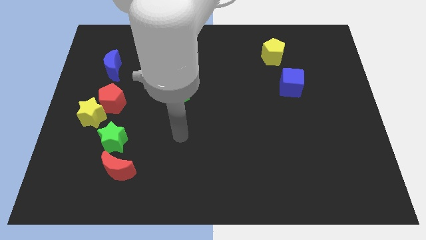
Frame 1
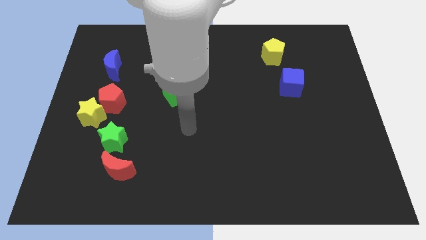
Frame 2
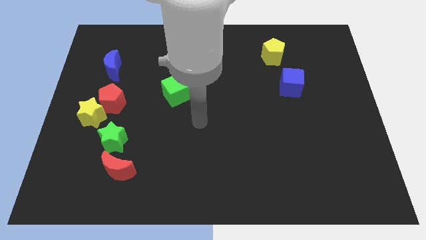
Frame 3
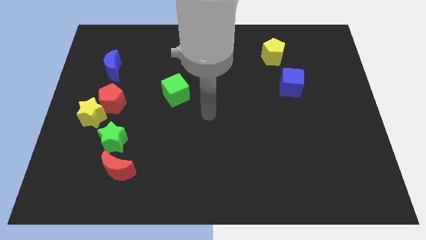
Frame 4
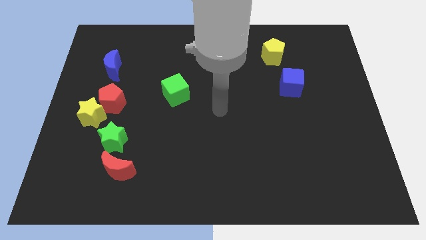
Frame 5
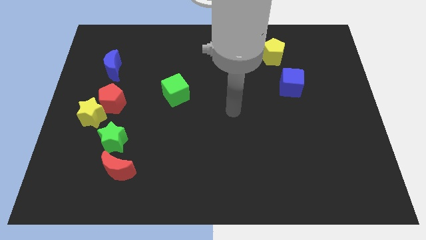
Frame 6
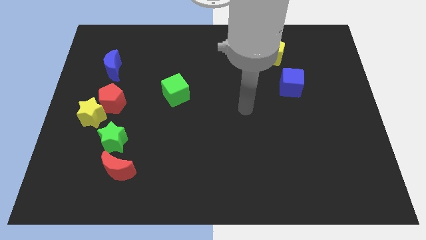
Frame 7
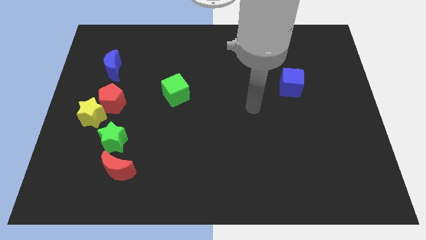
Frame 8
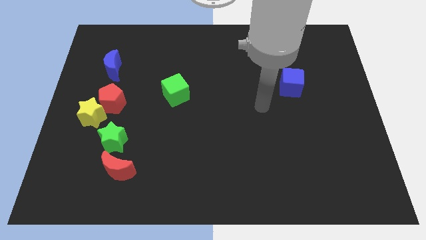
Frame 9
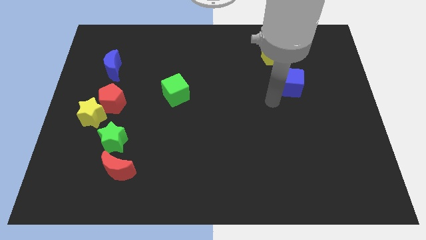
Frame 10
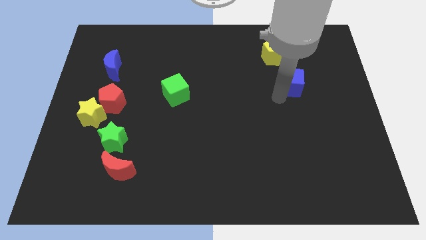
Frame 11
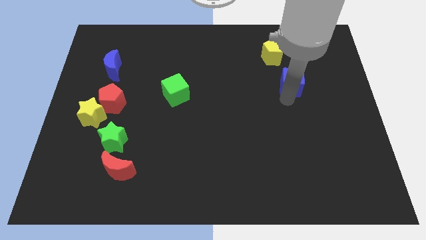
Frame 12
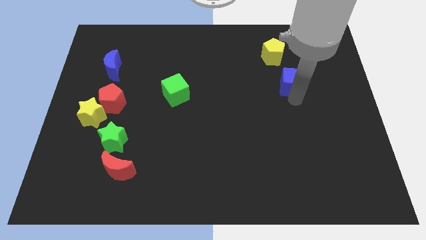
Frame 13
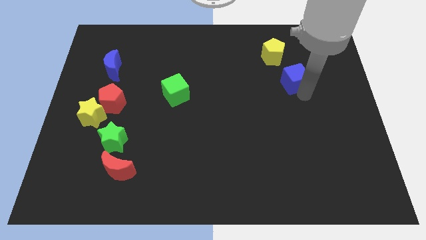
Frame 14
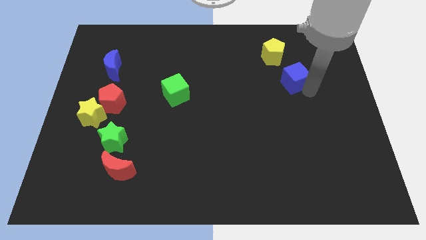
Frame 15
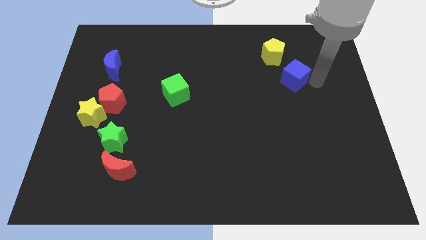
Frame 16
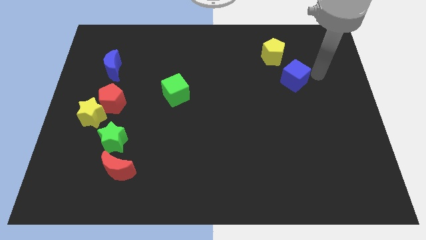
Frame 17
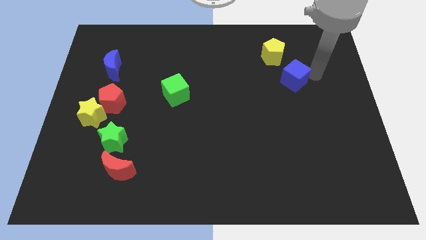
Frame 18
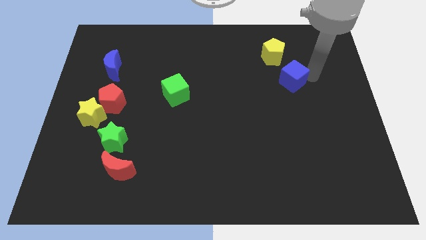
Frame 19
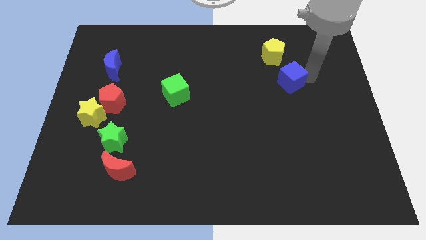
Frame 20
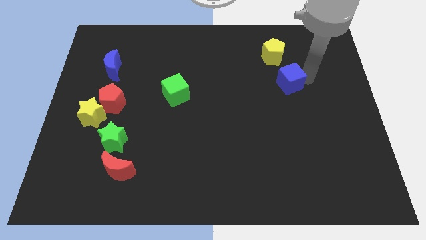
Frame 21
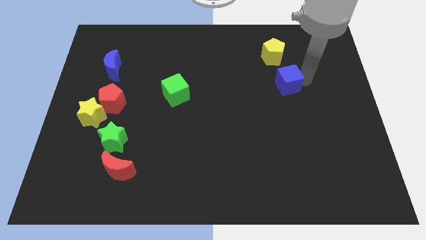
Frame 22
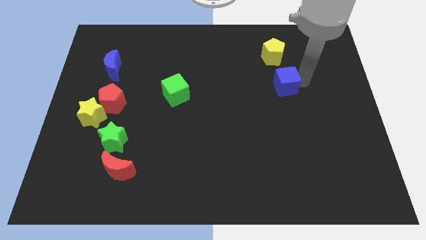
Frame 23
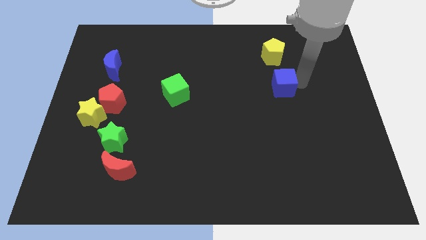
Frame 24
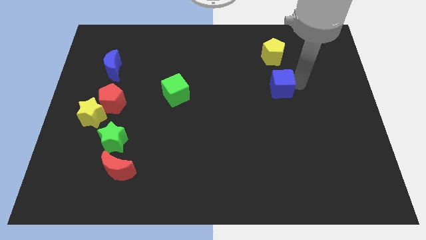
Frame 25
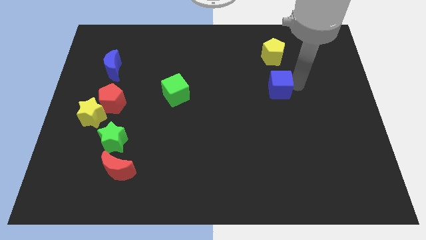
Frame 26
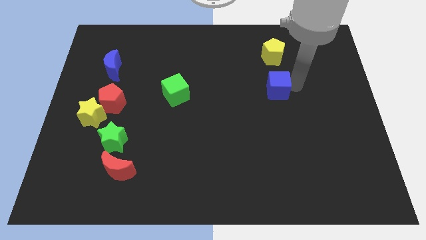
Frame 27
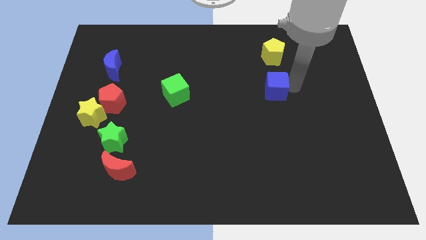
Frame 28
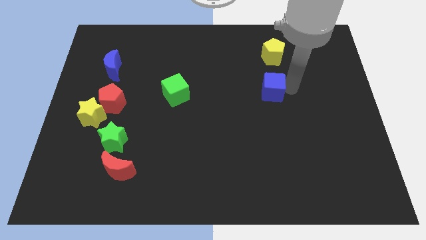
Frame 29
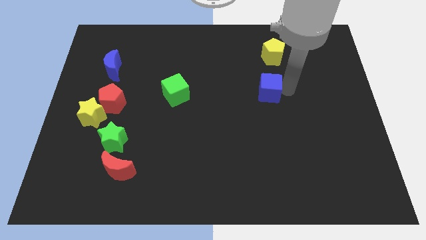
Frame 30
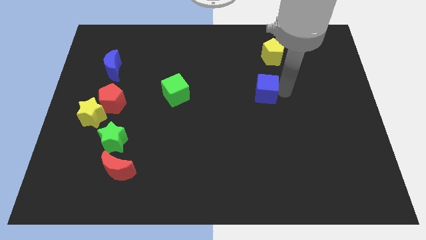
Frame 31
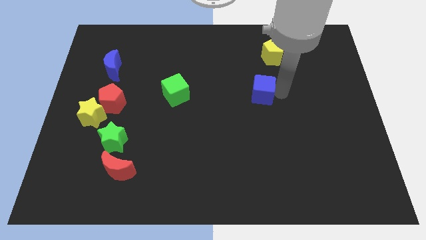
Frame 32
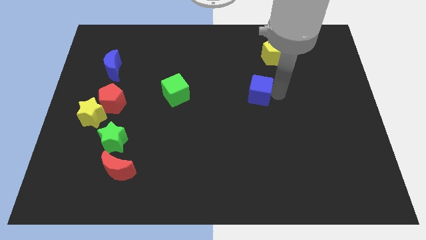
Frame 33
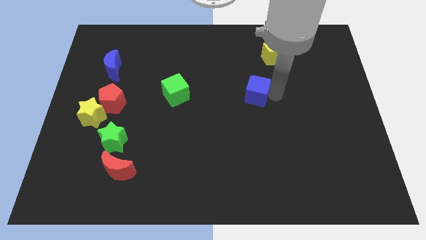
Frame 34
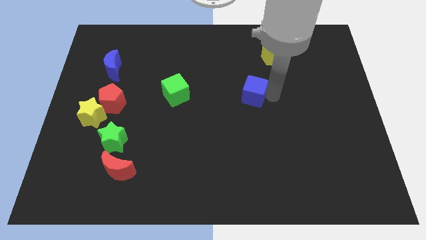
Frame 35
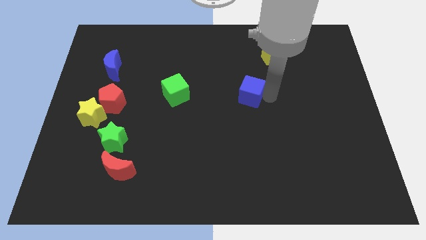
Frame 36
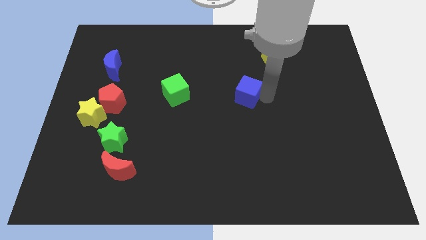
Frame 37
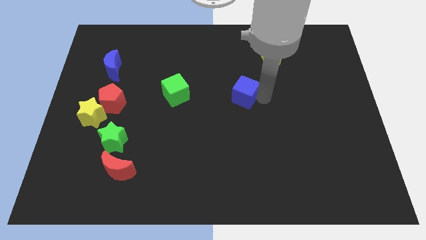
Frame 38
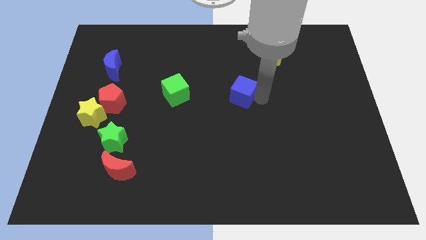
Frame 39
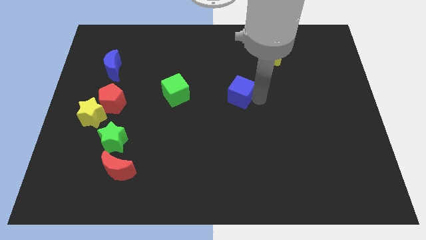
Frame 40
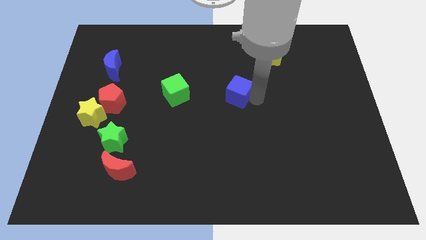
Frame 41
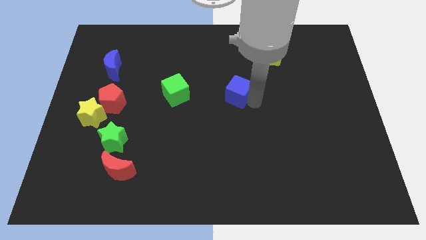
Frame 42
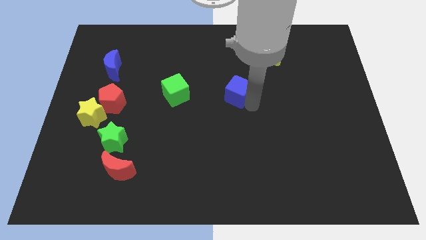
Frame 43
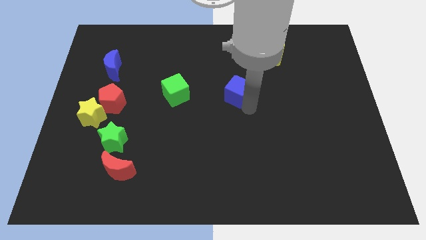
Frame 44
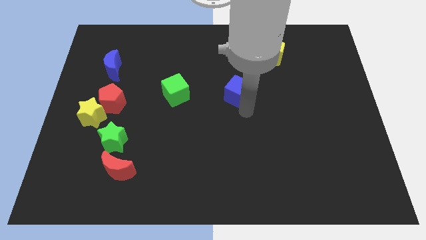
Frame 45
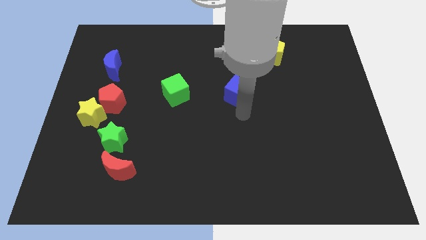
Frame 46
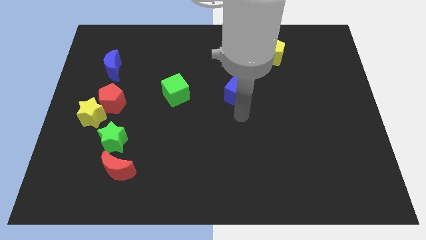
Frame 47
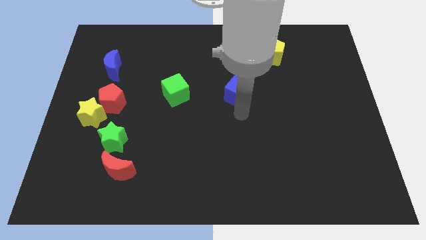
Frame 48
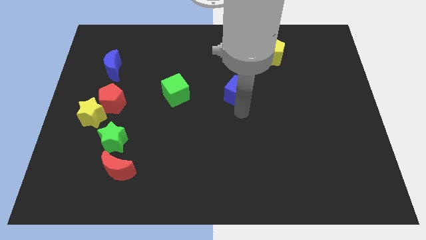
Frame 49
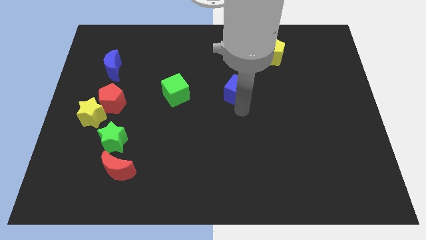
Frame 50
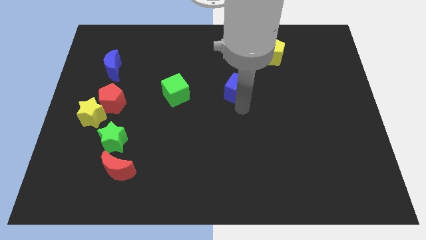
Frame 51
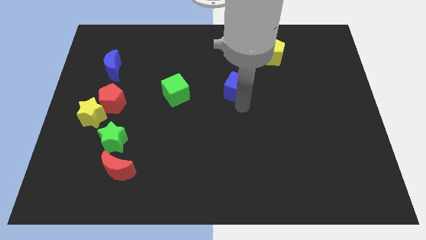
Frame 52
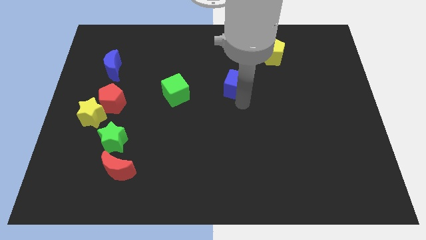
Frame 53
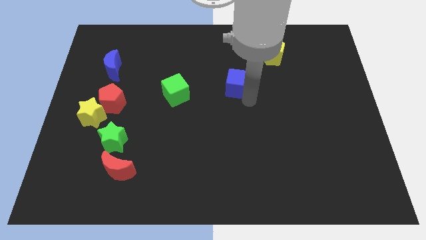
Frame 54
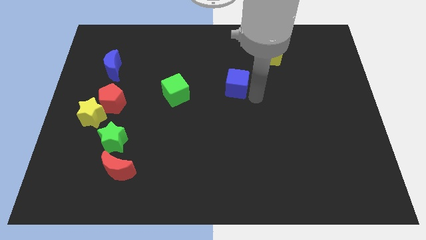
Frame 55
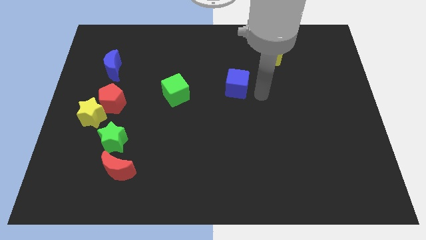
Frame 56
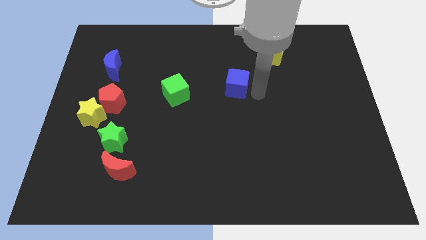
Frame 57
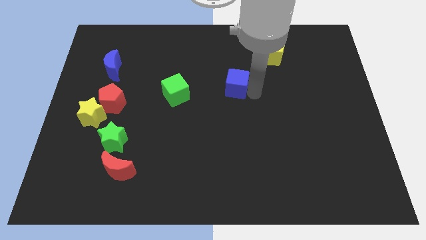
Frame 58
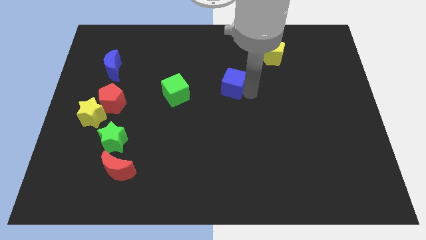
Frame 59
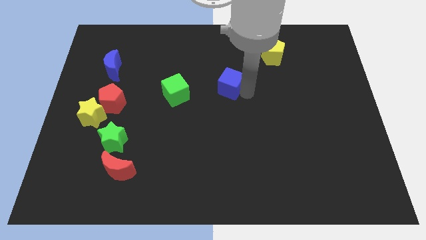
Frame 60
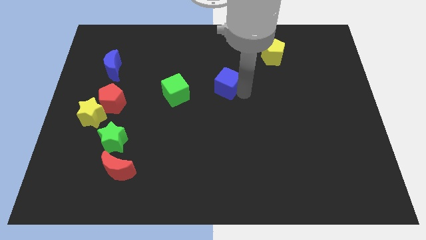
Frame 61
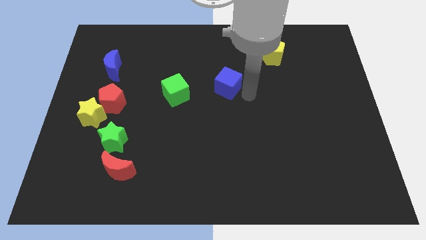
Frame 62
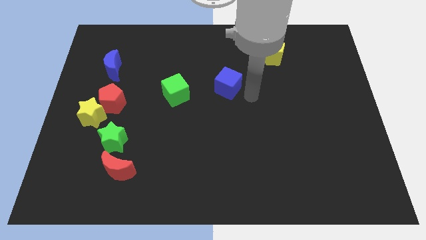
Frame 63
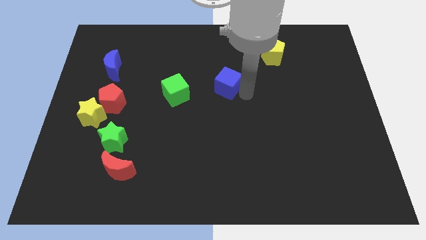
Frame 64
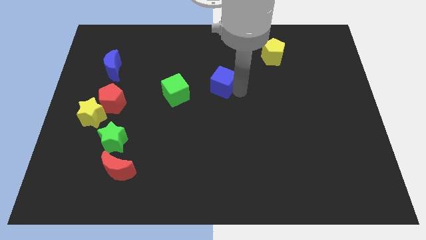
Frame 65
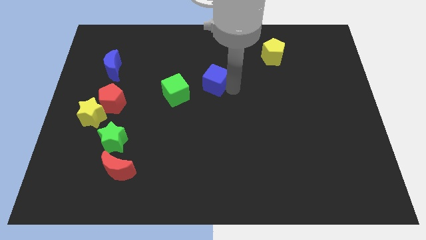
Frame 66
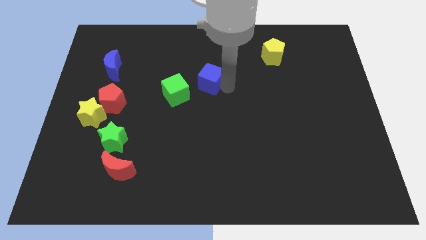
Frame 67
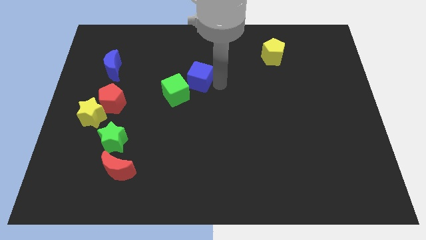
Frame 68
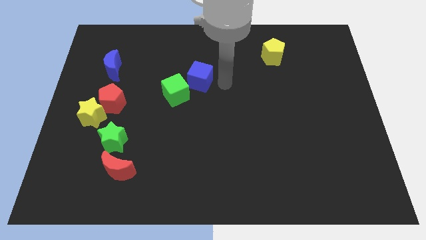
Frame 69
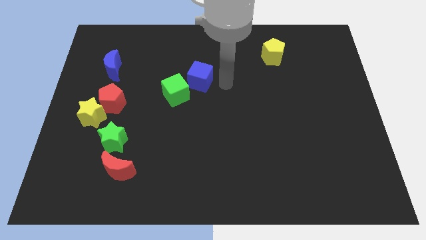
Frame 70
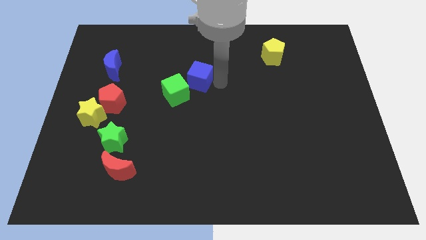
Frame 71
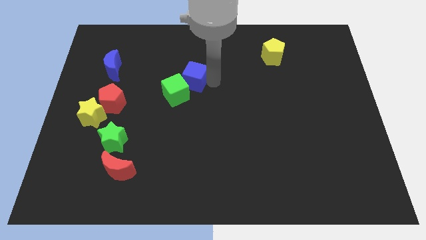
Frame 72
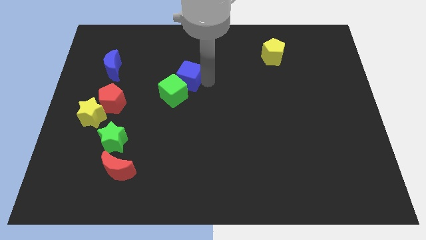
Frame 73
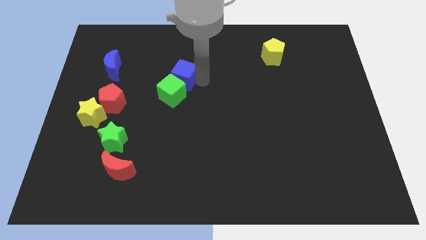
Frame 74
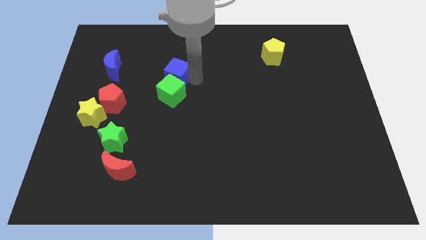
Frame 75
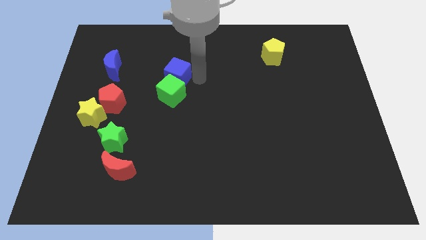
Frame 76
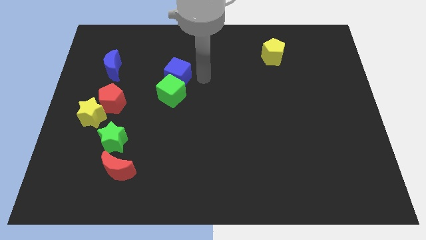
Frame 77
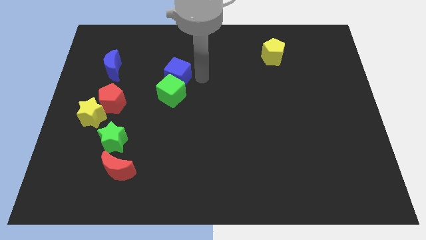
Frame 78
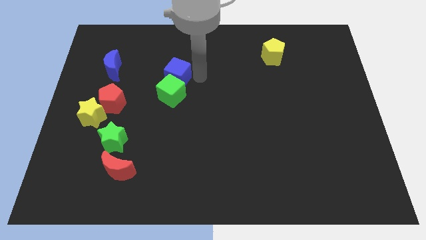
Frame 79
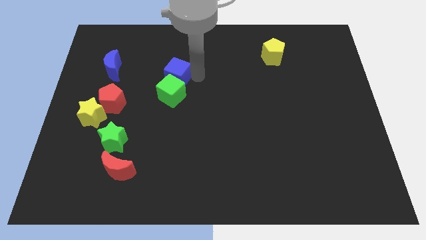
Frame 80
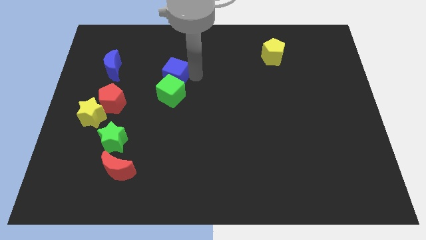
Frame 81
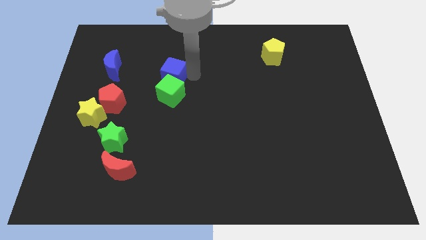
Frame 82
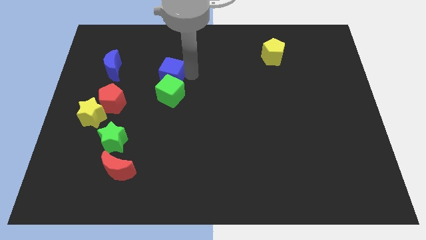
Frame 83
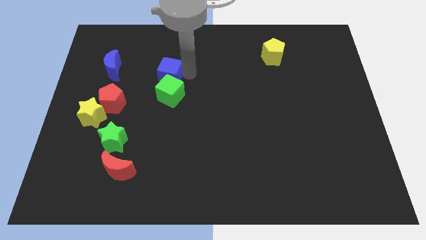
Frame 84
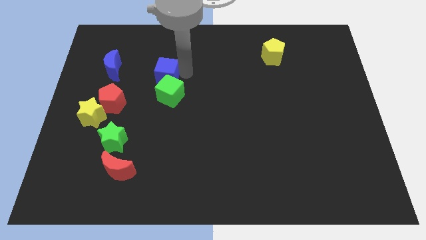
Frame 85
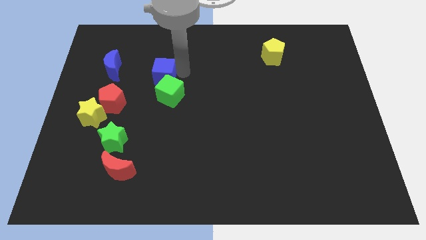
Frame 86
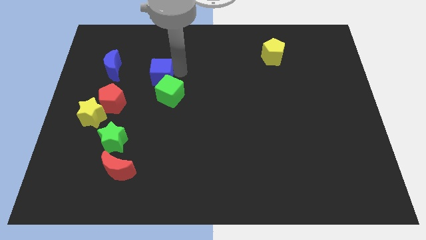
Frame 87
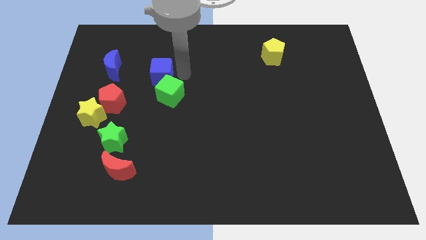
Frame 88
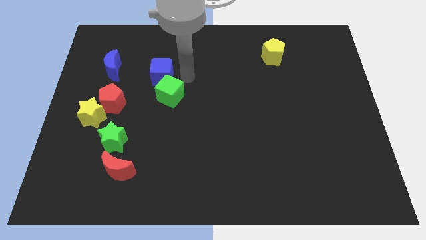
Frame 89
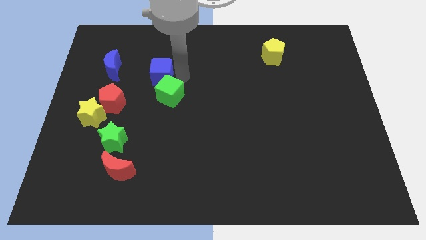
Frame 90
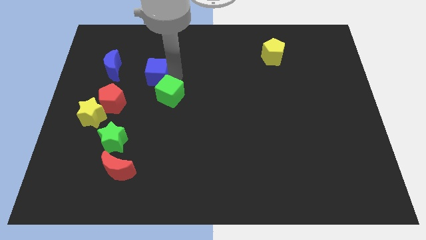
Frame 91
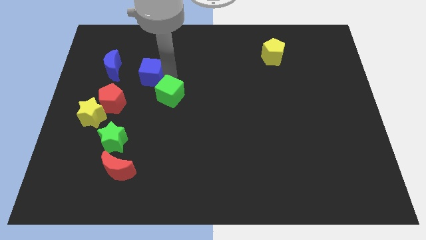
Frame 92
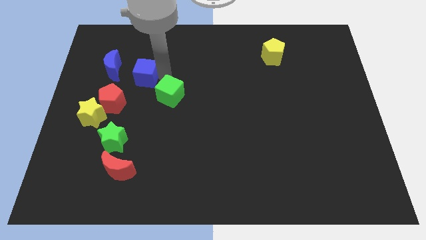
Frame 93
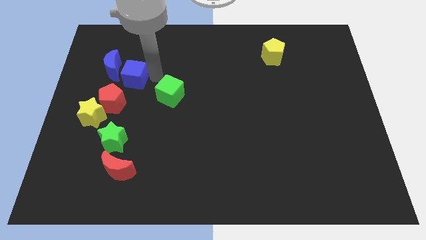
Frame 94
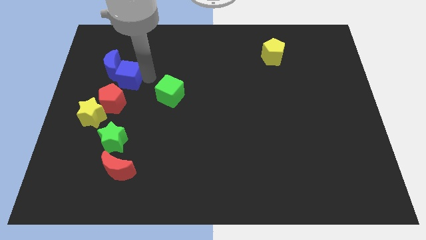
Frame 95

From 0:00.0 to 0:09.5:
put the blue cube next to the blue moon
